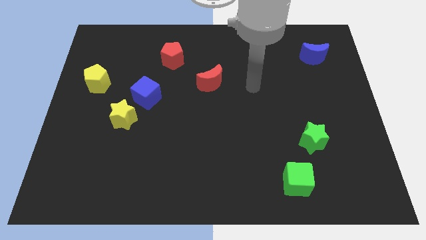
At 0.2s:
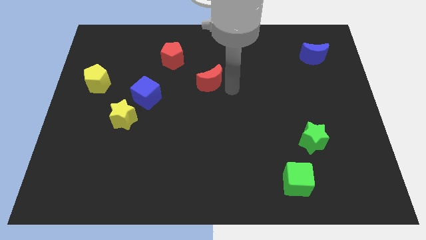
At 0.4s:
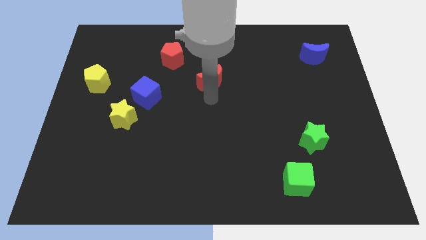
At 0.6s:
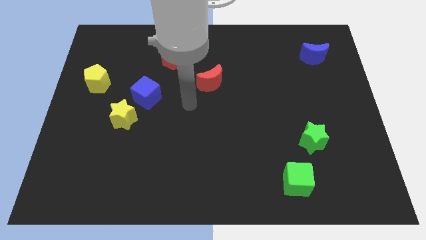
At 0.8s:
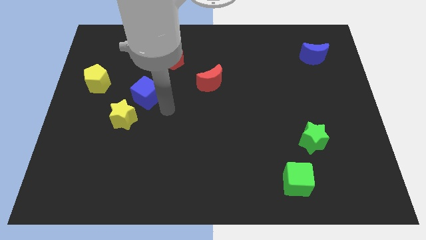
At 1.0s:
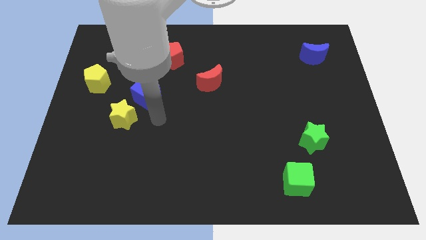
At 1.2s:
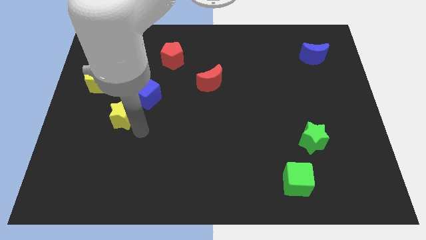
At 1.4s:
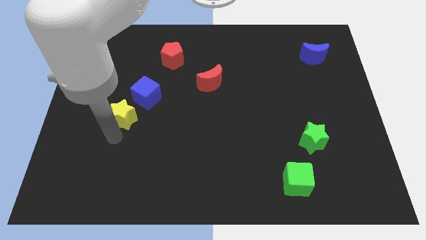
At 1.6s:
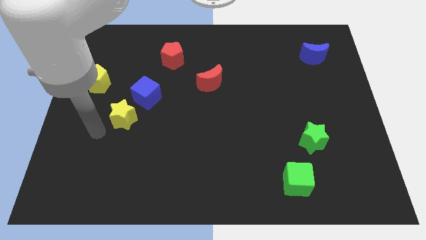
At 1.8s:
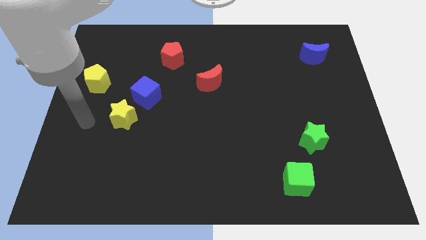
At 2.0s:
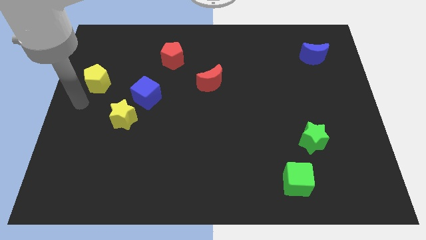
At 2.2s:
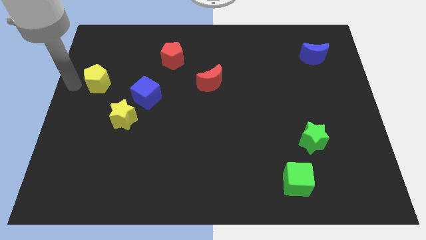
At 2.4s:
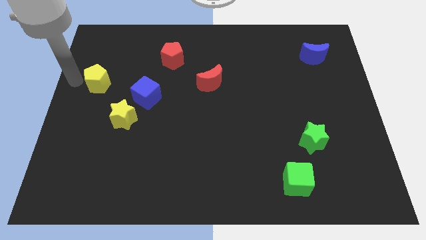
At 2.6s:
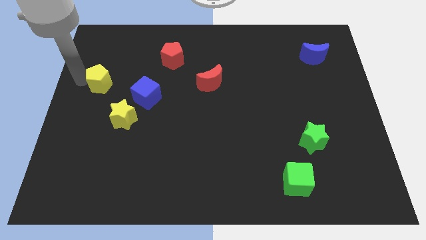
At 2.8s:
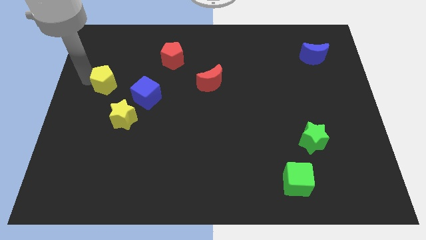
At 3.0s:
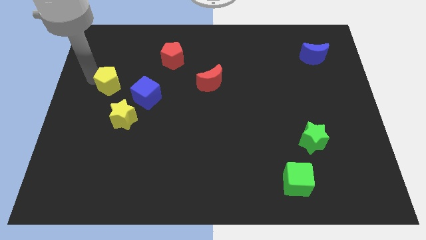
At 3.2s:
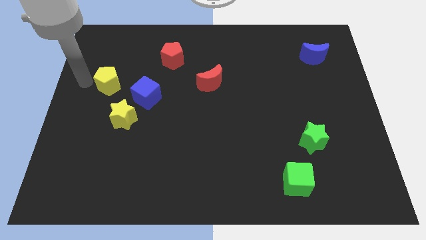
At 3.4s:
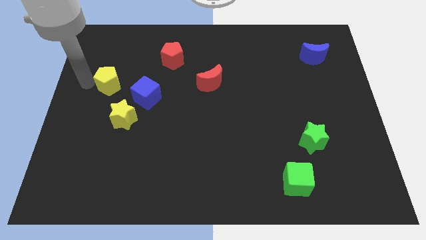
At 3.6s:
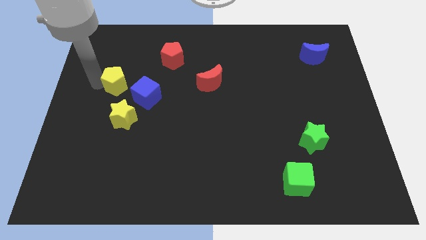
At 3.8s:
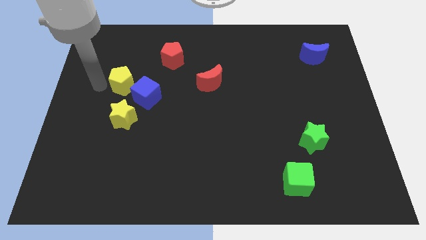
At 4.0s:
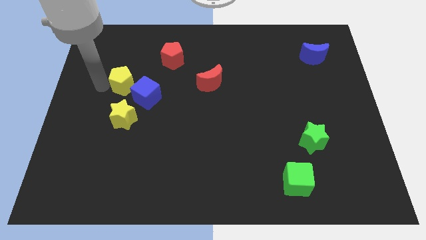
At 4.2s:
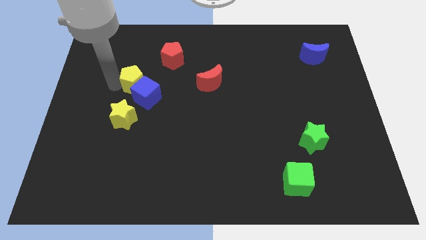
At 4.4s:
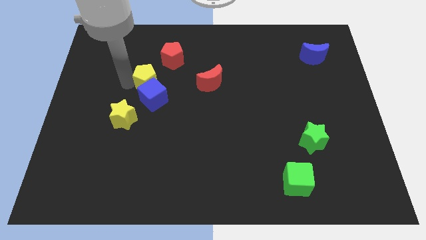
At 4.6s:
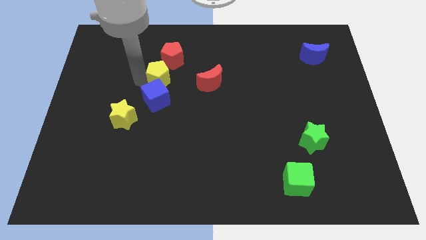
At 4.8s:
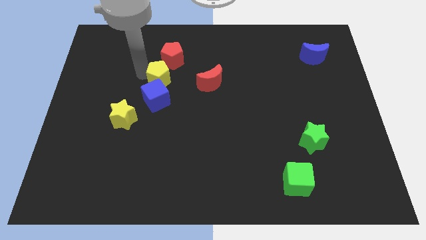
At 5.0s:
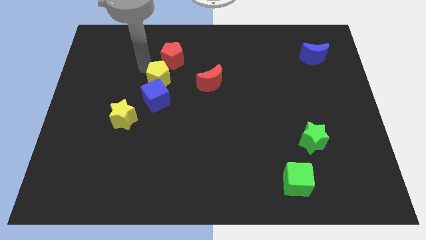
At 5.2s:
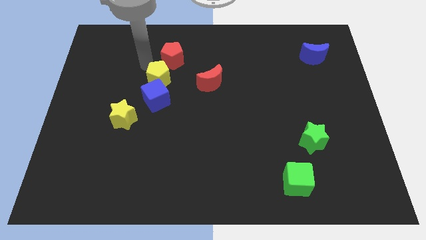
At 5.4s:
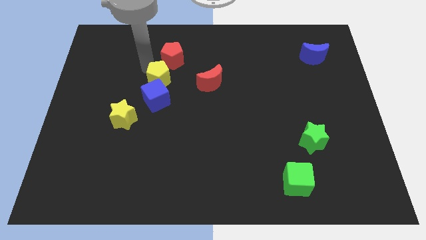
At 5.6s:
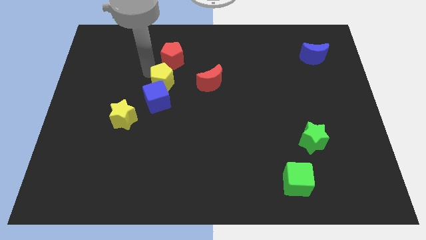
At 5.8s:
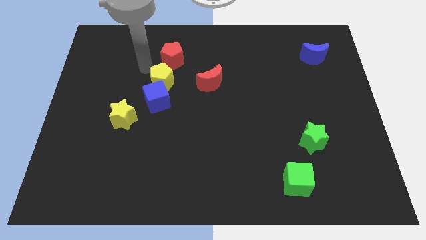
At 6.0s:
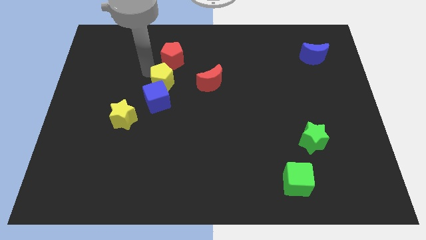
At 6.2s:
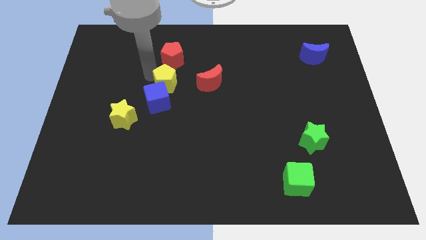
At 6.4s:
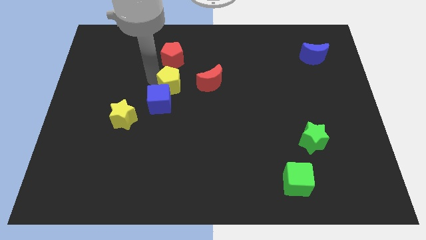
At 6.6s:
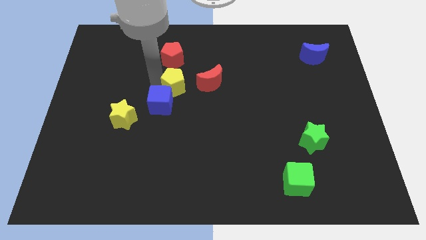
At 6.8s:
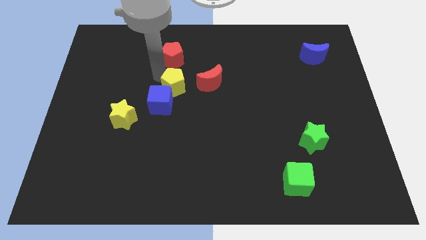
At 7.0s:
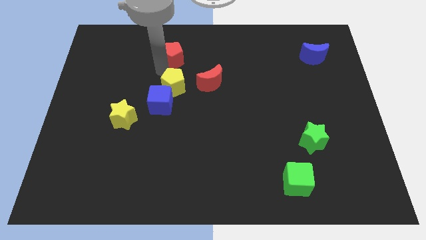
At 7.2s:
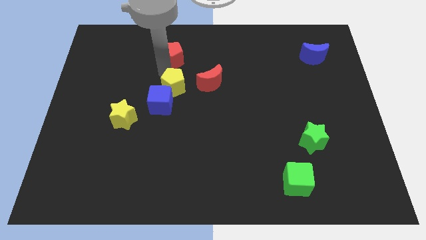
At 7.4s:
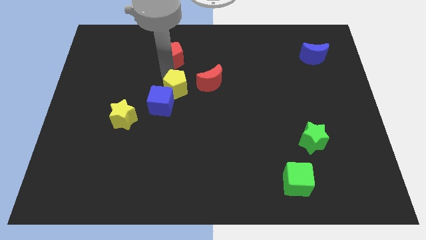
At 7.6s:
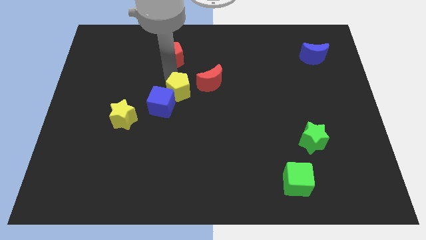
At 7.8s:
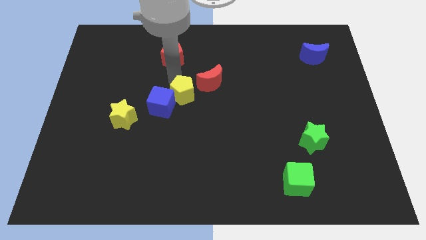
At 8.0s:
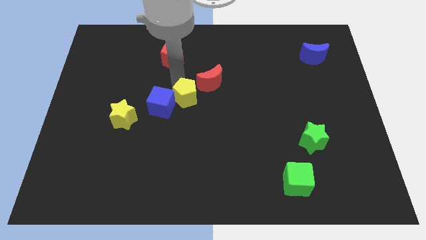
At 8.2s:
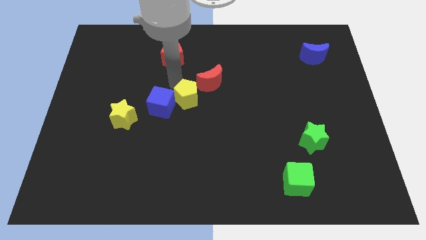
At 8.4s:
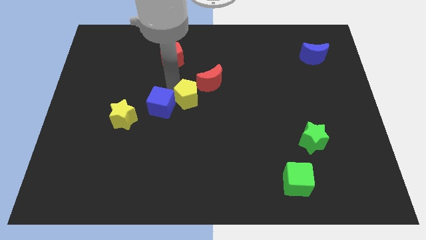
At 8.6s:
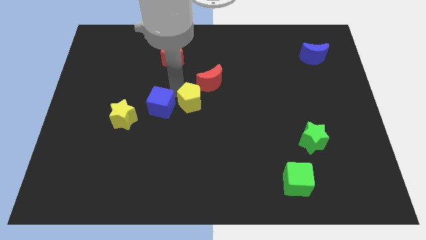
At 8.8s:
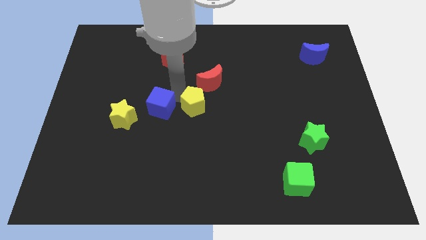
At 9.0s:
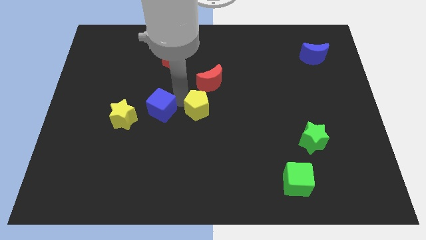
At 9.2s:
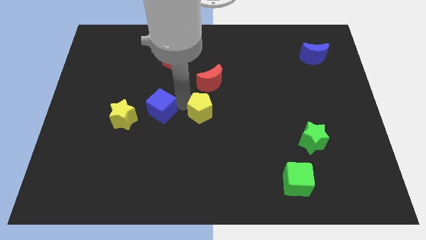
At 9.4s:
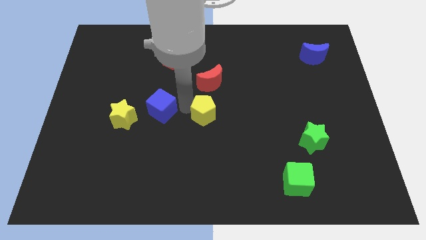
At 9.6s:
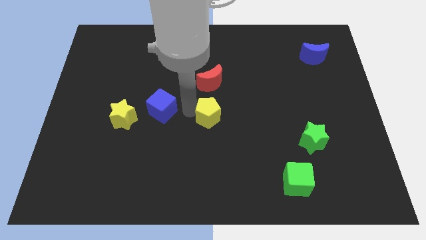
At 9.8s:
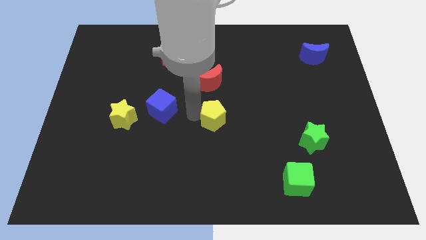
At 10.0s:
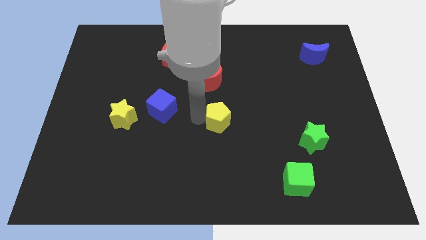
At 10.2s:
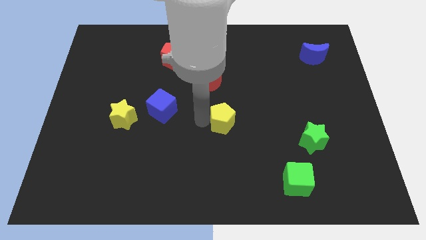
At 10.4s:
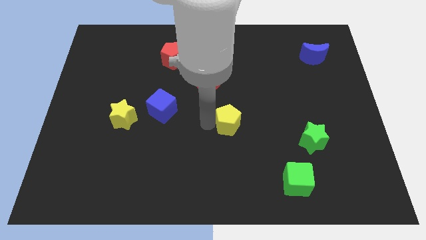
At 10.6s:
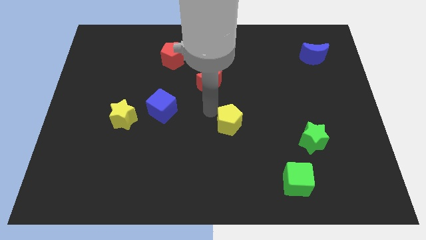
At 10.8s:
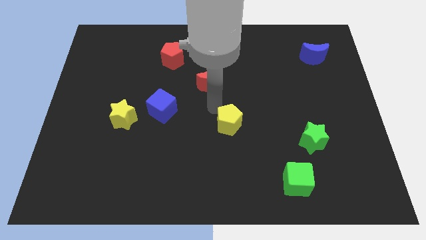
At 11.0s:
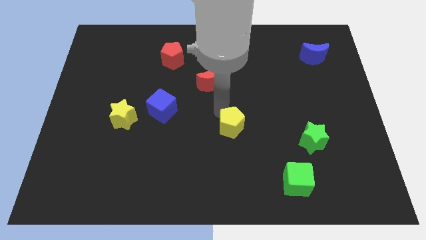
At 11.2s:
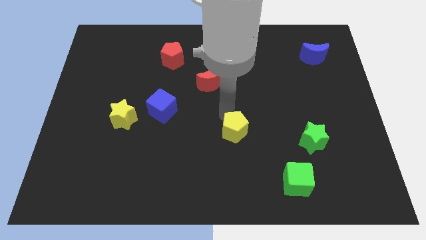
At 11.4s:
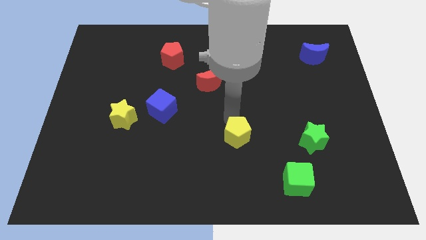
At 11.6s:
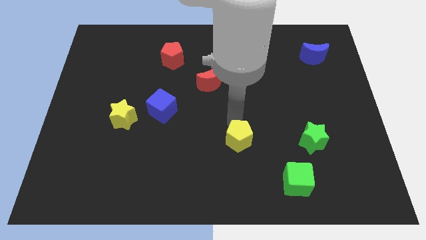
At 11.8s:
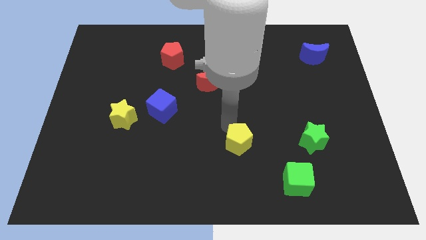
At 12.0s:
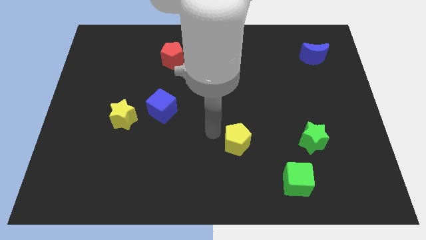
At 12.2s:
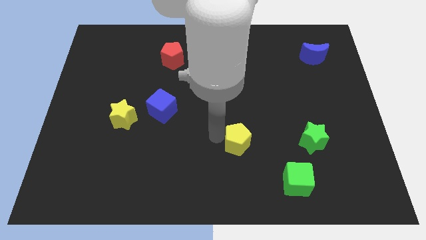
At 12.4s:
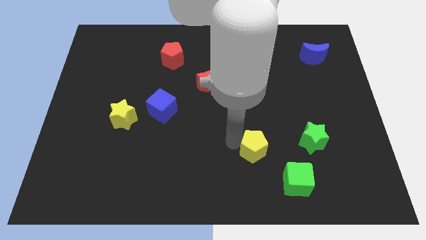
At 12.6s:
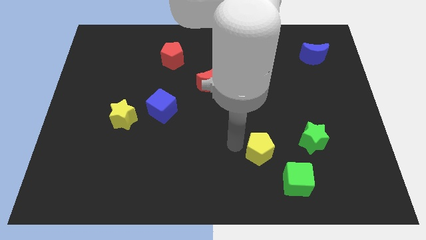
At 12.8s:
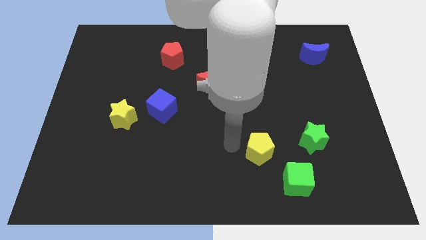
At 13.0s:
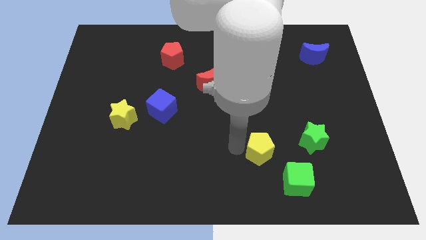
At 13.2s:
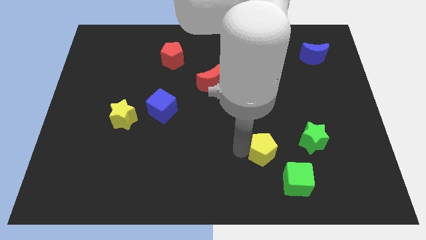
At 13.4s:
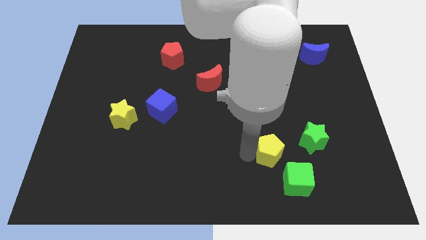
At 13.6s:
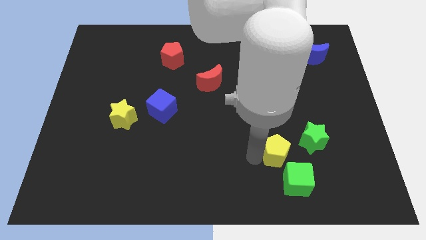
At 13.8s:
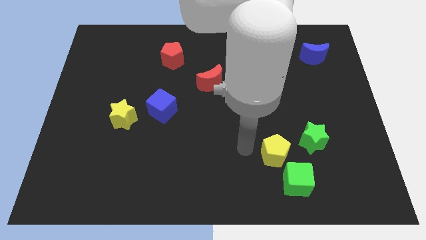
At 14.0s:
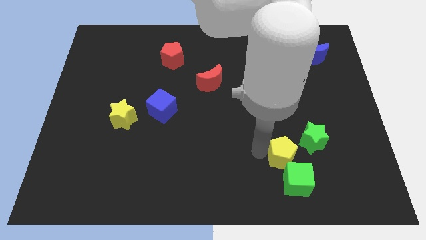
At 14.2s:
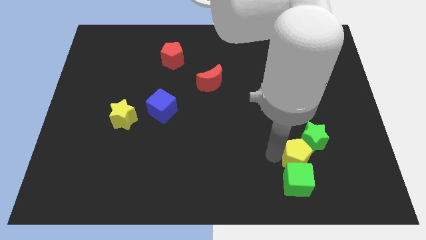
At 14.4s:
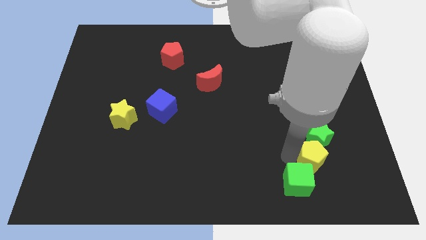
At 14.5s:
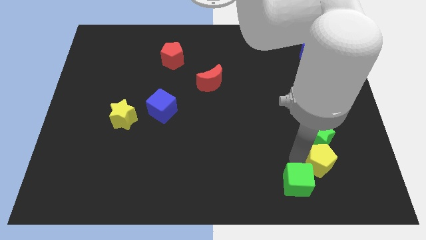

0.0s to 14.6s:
put the yellow pentagon to the bottom right side of the green star

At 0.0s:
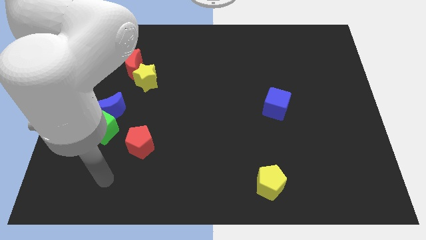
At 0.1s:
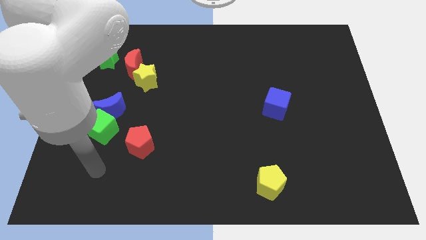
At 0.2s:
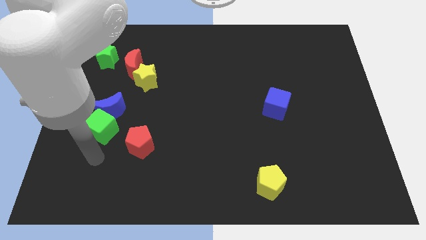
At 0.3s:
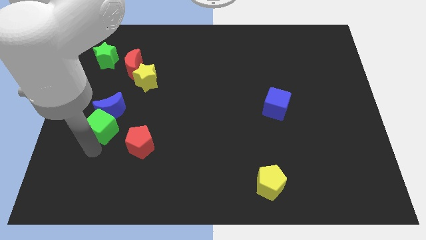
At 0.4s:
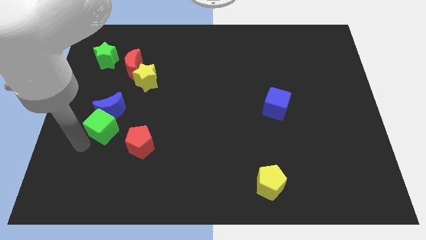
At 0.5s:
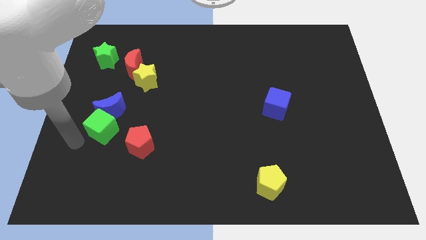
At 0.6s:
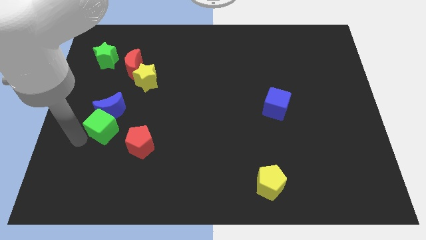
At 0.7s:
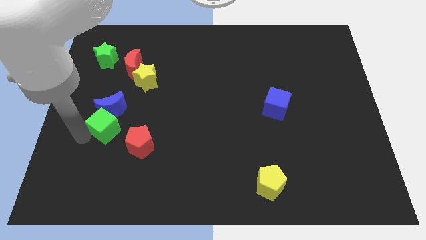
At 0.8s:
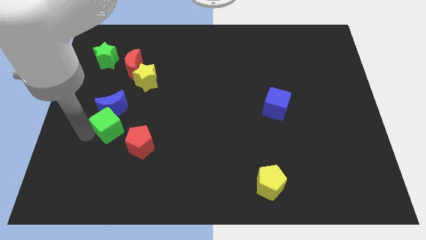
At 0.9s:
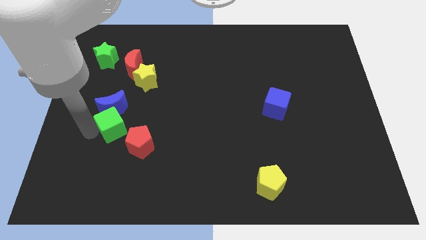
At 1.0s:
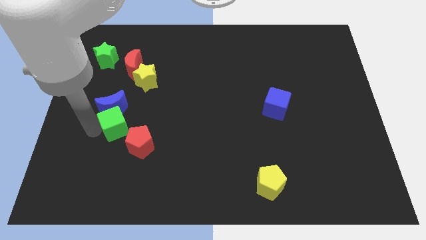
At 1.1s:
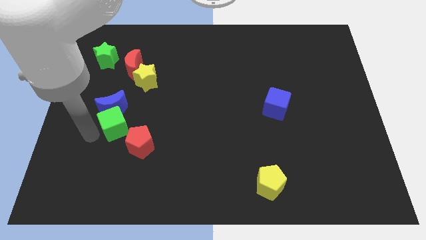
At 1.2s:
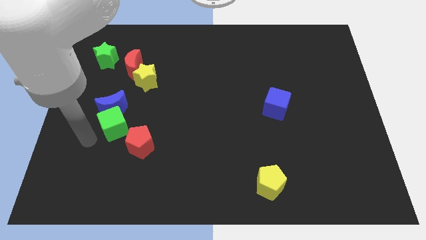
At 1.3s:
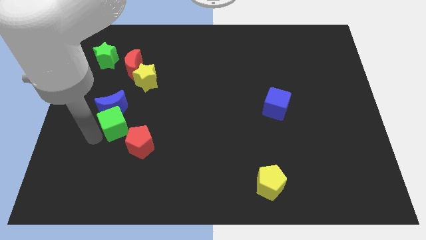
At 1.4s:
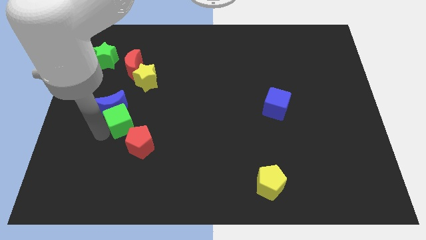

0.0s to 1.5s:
slide the green cube to the bottom of the yellow star
